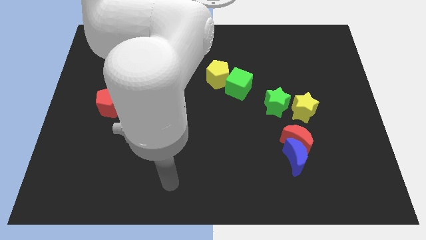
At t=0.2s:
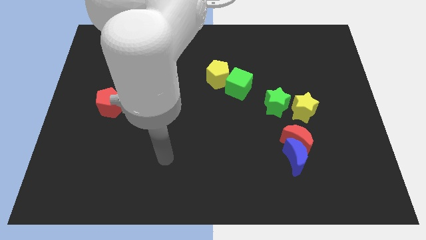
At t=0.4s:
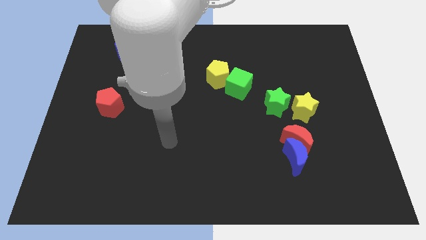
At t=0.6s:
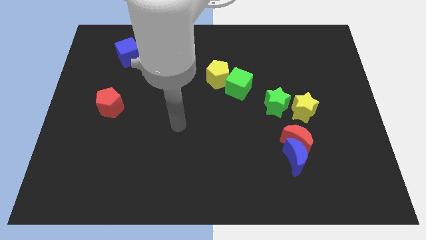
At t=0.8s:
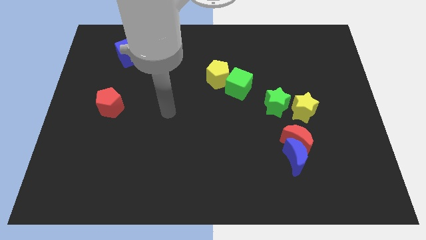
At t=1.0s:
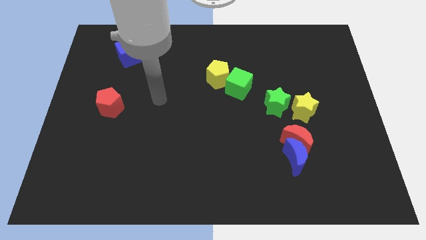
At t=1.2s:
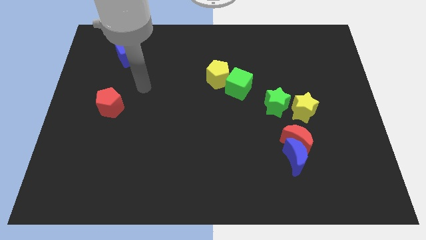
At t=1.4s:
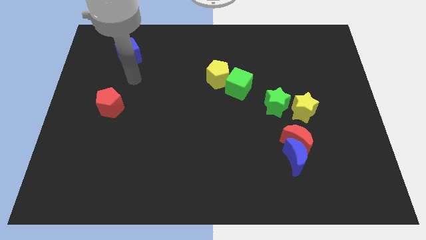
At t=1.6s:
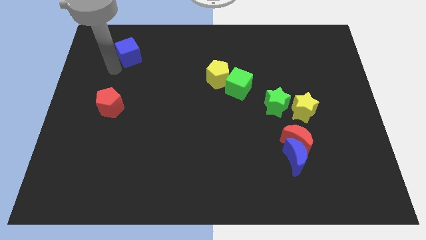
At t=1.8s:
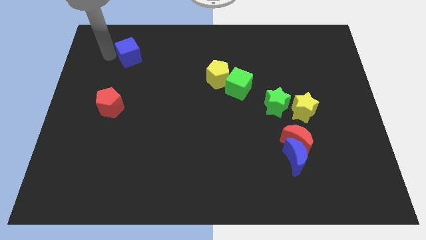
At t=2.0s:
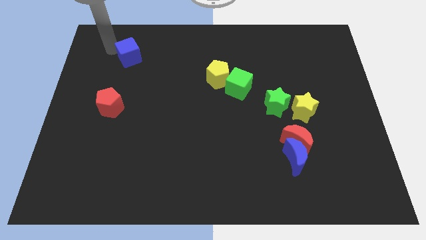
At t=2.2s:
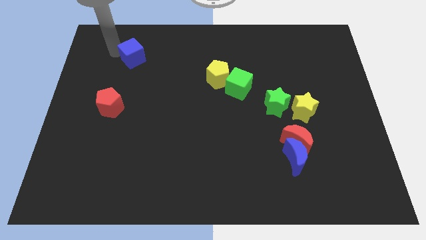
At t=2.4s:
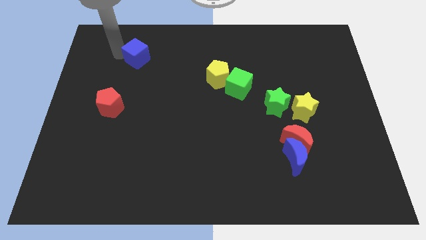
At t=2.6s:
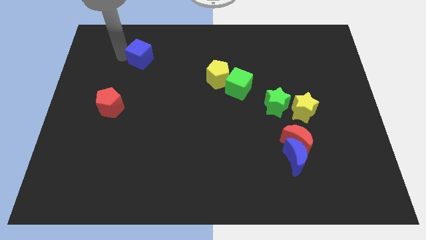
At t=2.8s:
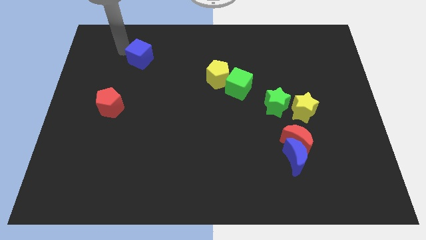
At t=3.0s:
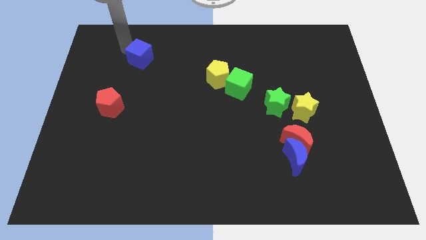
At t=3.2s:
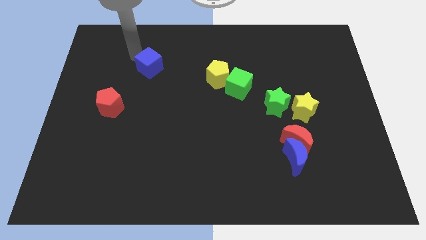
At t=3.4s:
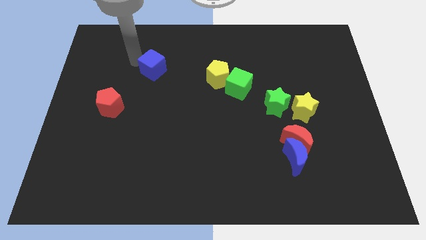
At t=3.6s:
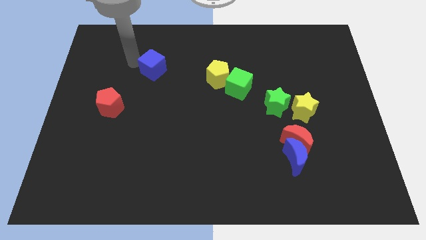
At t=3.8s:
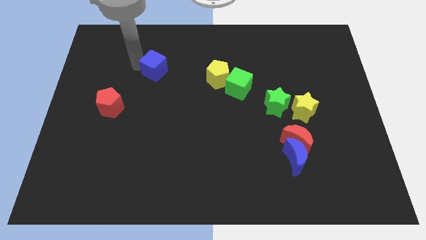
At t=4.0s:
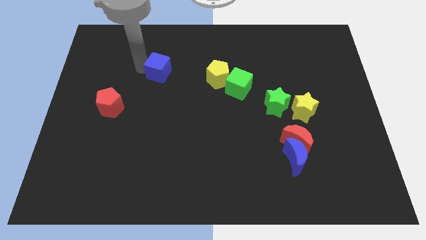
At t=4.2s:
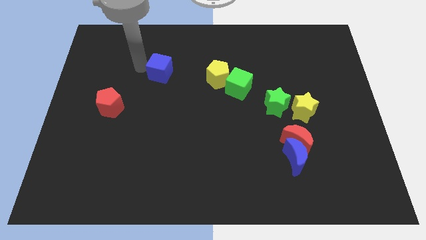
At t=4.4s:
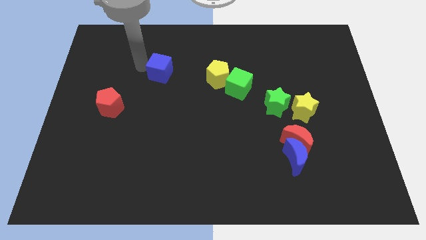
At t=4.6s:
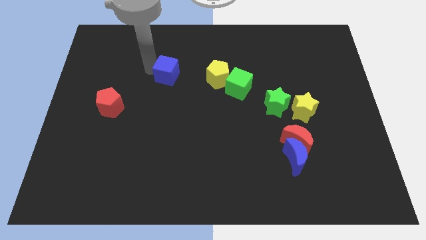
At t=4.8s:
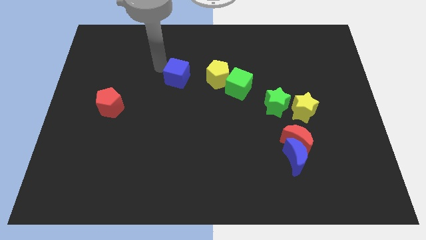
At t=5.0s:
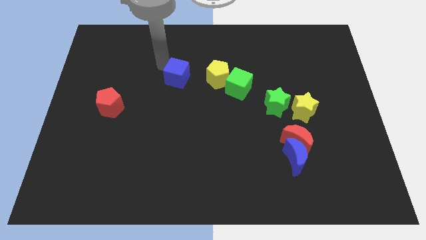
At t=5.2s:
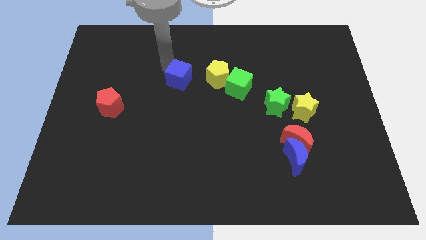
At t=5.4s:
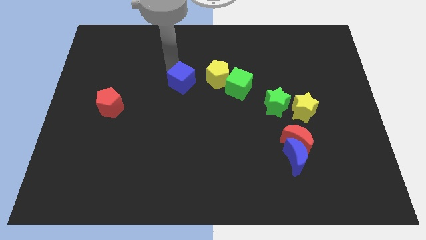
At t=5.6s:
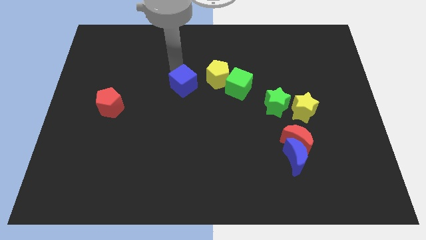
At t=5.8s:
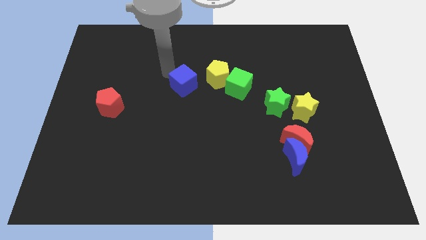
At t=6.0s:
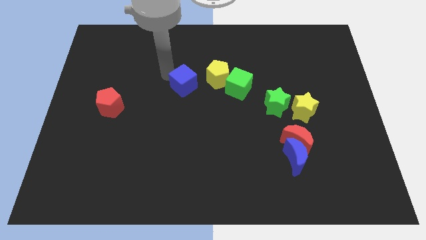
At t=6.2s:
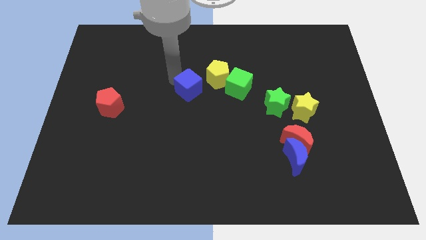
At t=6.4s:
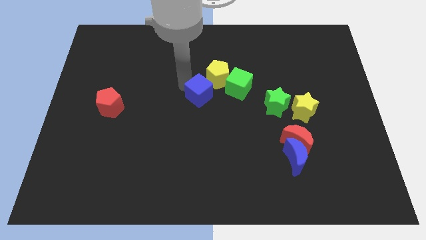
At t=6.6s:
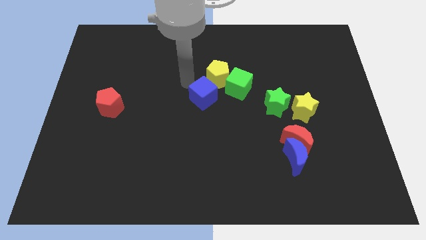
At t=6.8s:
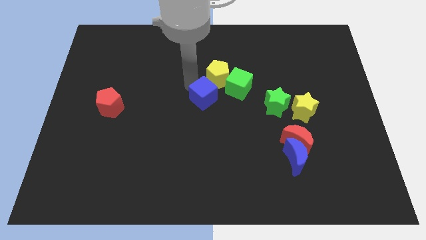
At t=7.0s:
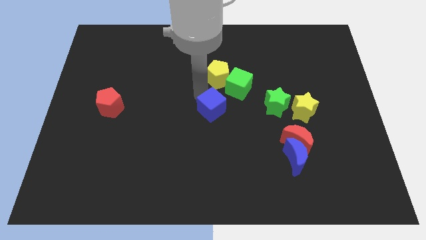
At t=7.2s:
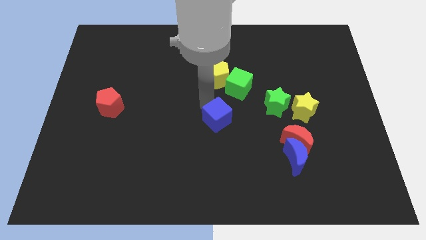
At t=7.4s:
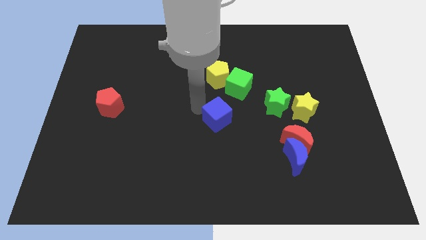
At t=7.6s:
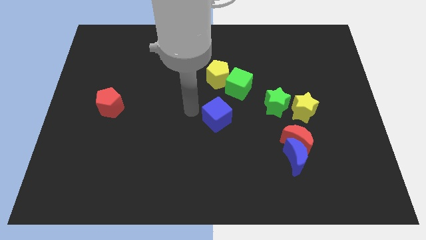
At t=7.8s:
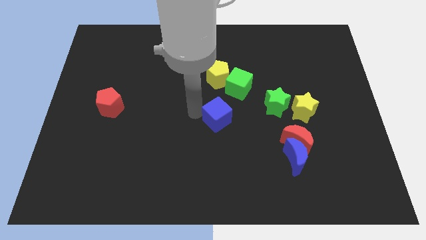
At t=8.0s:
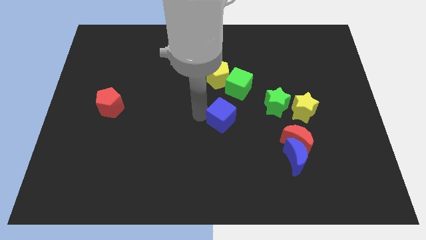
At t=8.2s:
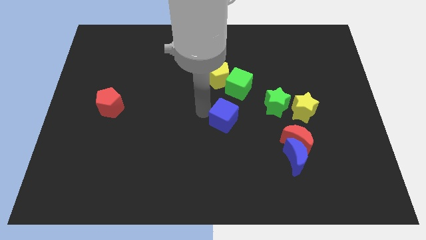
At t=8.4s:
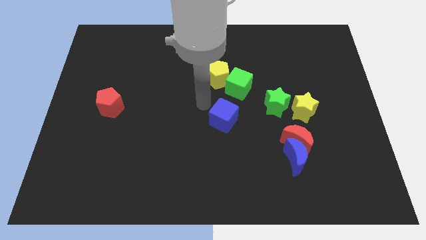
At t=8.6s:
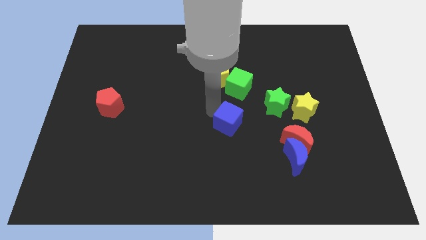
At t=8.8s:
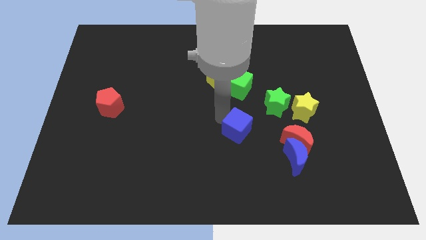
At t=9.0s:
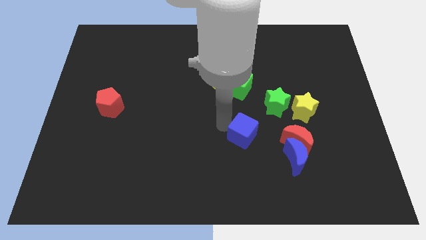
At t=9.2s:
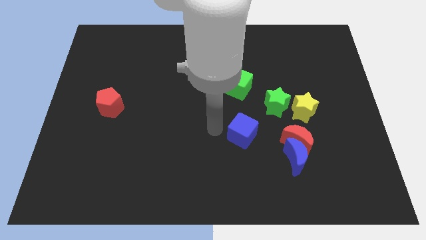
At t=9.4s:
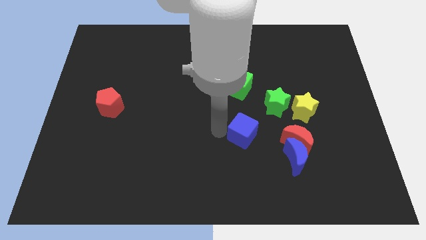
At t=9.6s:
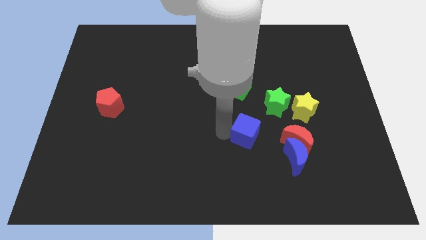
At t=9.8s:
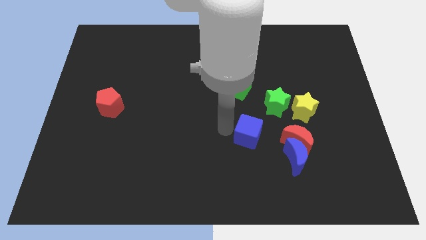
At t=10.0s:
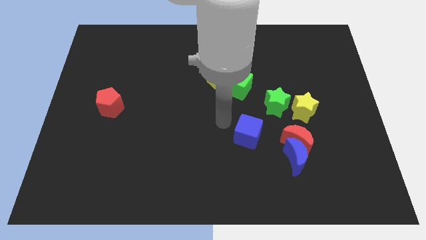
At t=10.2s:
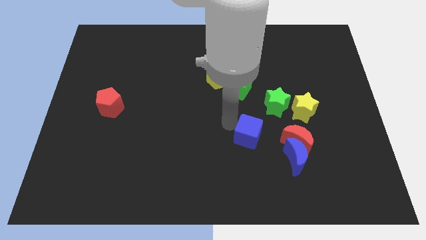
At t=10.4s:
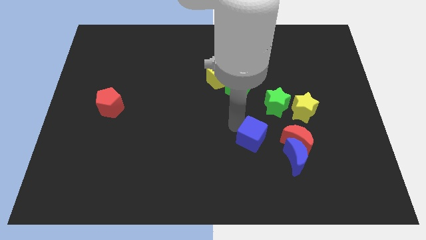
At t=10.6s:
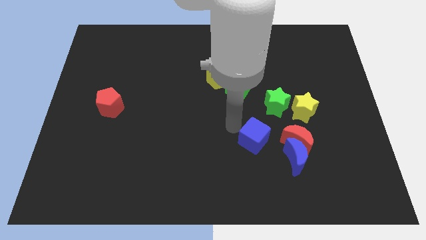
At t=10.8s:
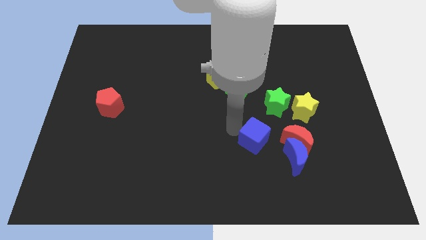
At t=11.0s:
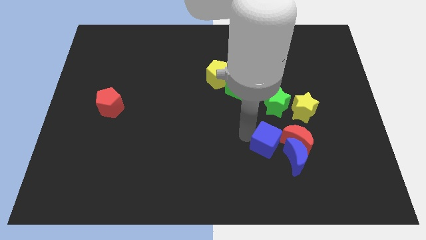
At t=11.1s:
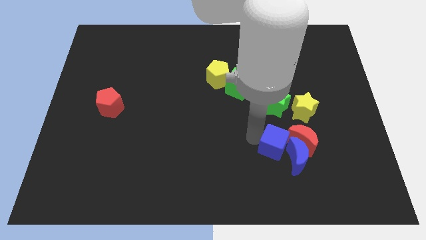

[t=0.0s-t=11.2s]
slide the blue cube close to the blue moon

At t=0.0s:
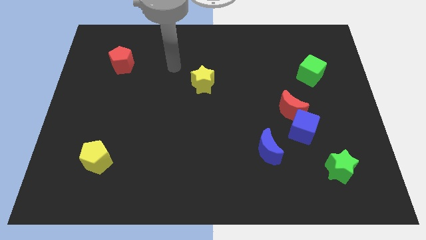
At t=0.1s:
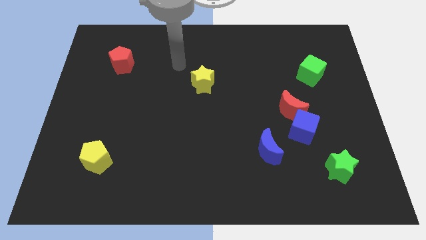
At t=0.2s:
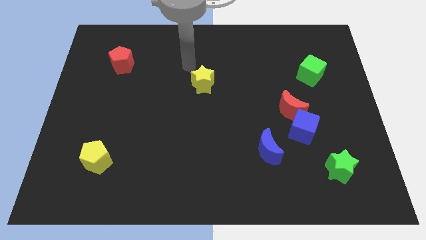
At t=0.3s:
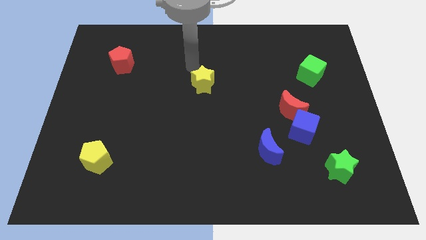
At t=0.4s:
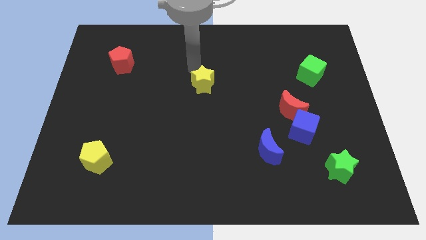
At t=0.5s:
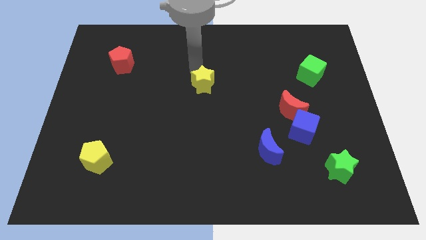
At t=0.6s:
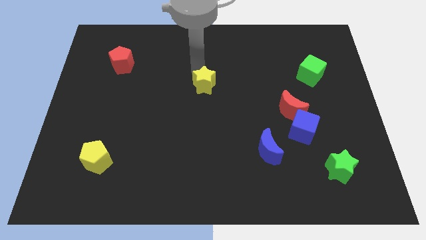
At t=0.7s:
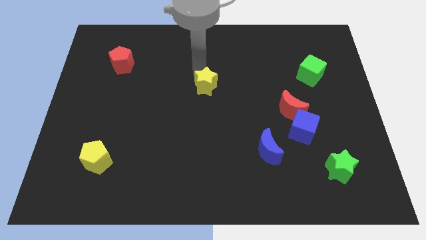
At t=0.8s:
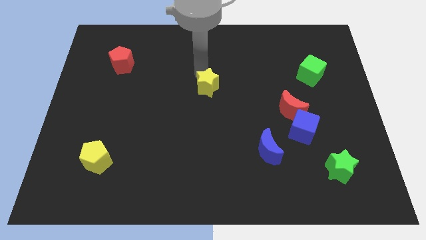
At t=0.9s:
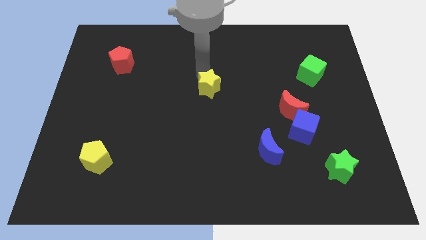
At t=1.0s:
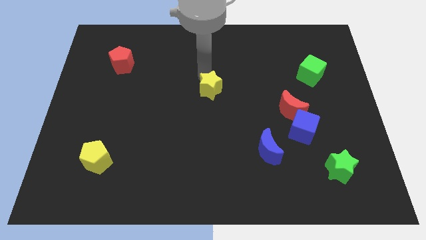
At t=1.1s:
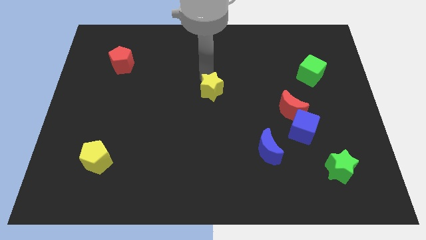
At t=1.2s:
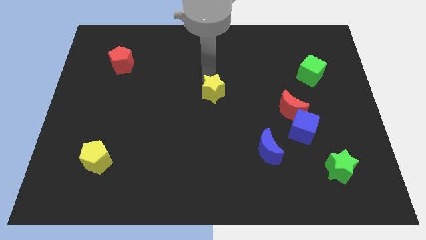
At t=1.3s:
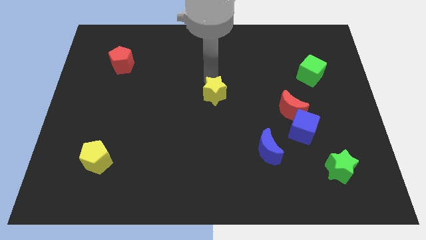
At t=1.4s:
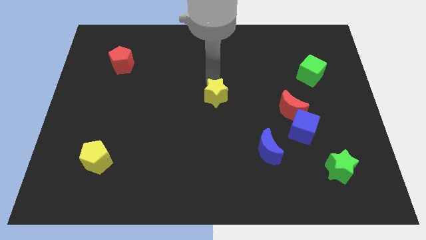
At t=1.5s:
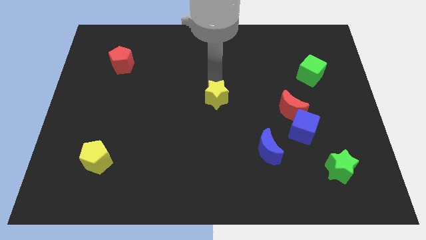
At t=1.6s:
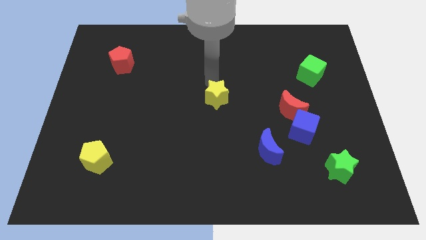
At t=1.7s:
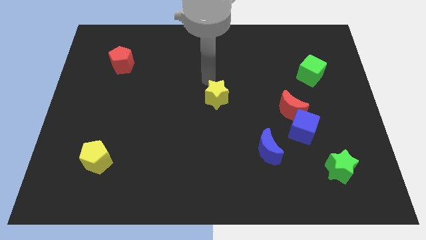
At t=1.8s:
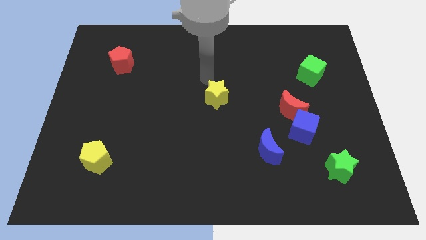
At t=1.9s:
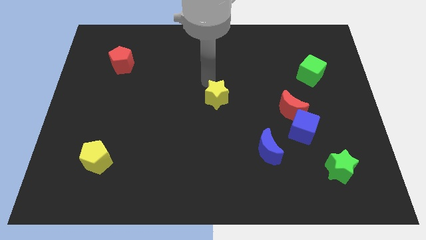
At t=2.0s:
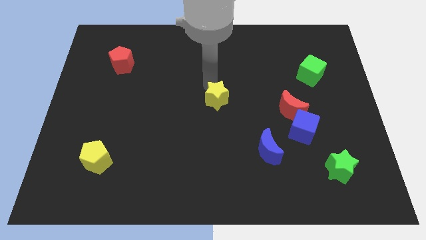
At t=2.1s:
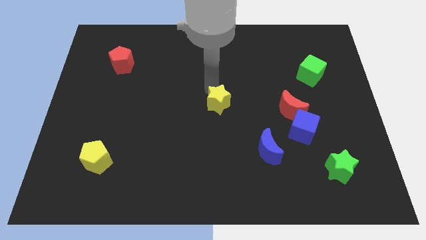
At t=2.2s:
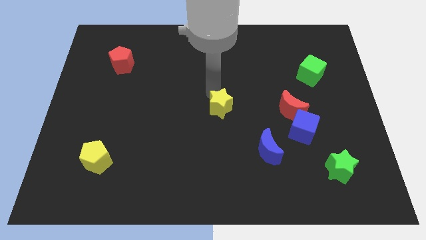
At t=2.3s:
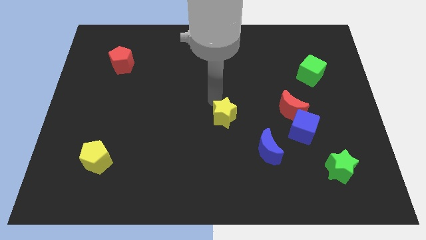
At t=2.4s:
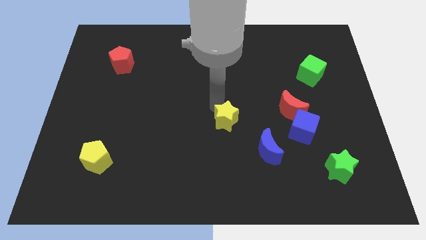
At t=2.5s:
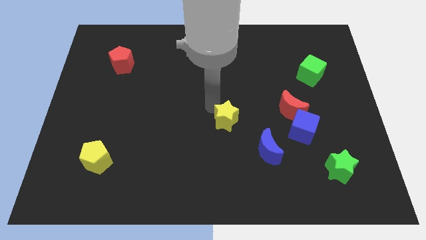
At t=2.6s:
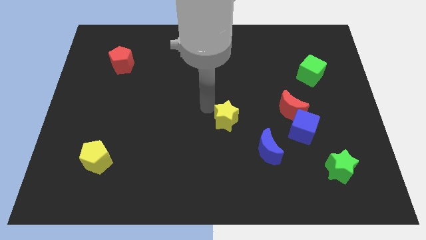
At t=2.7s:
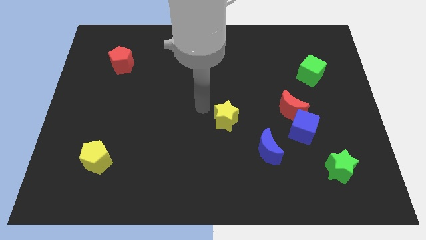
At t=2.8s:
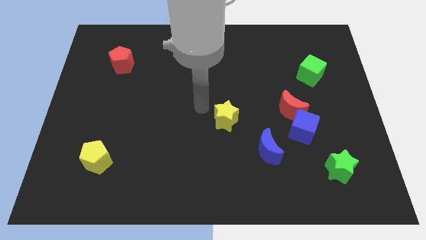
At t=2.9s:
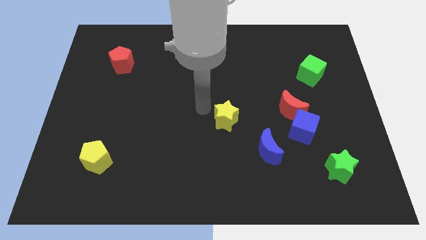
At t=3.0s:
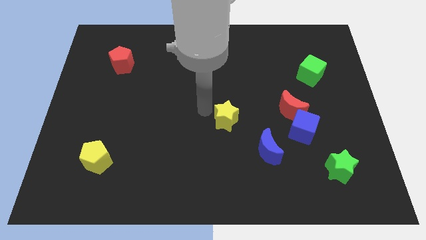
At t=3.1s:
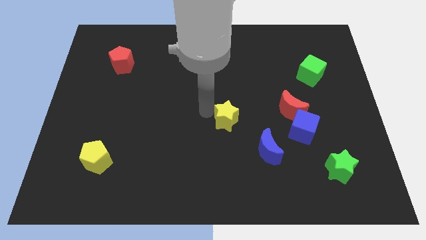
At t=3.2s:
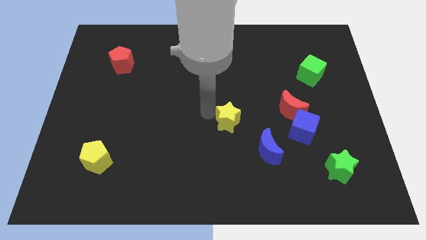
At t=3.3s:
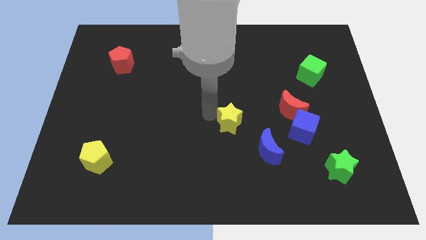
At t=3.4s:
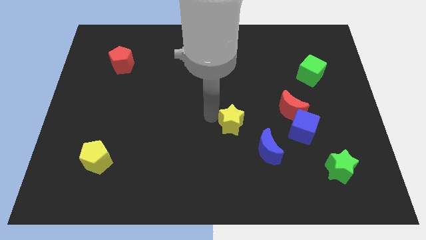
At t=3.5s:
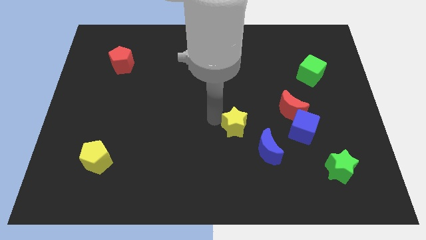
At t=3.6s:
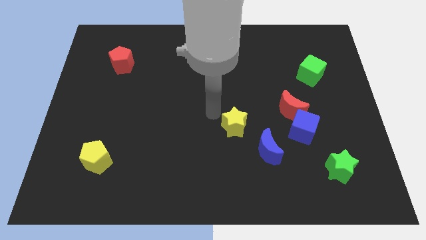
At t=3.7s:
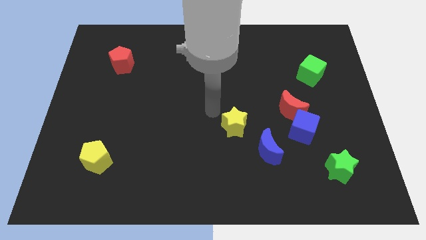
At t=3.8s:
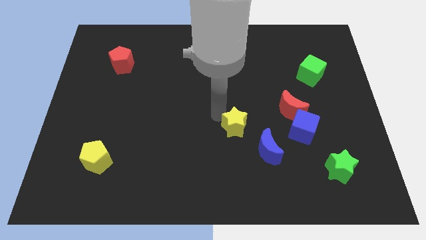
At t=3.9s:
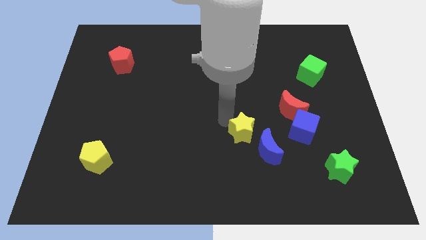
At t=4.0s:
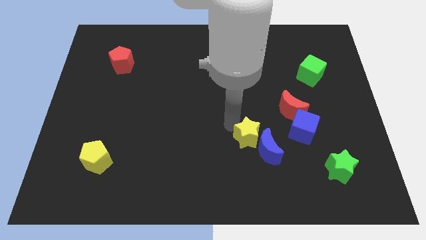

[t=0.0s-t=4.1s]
put the yellow star towards the blue moon
